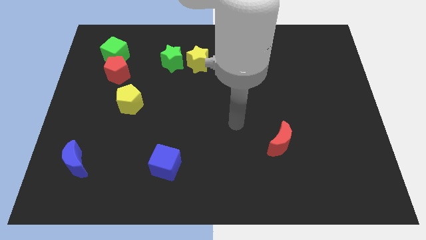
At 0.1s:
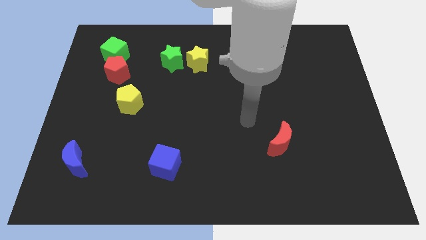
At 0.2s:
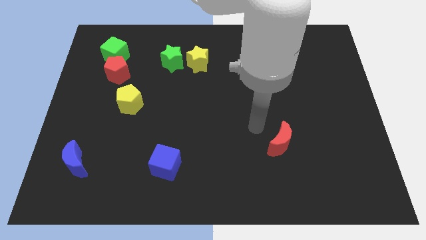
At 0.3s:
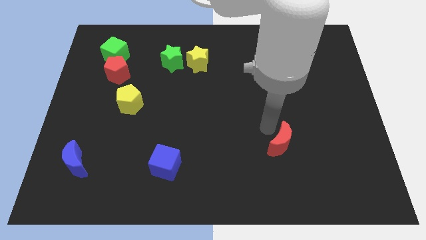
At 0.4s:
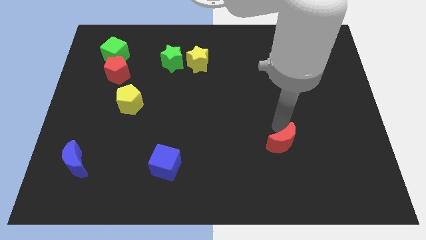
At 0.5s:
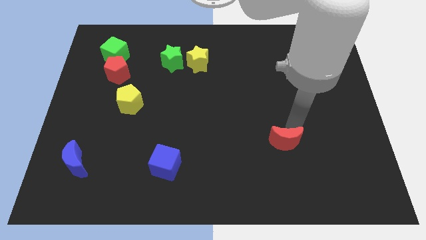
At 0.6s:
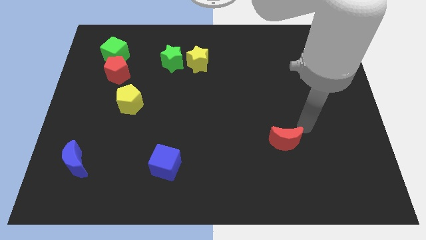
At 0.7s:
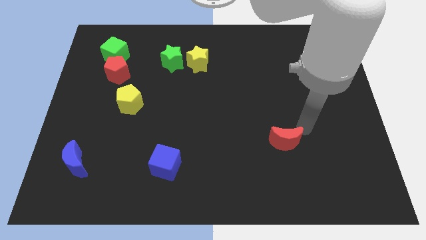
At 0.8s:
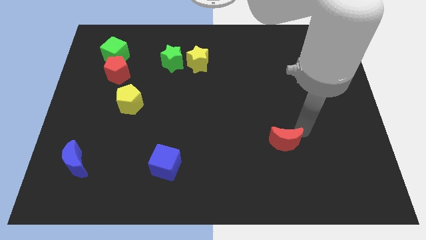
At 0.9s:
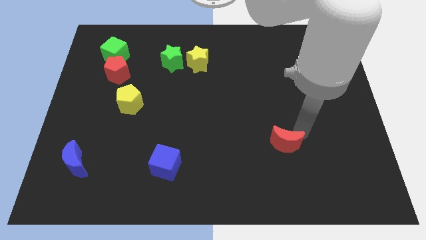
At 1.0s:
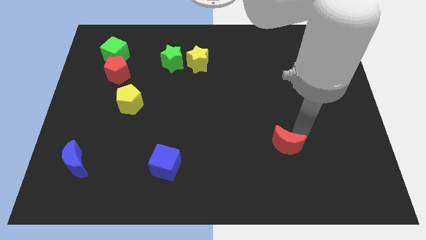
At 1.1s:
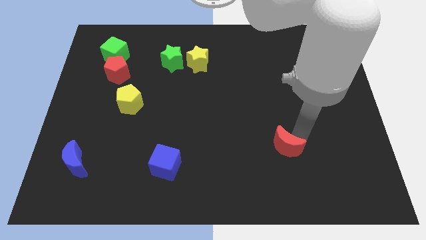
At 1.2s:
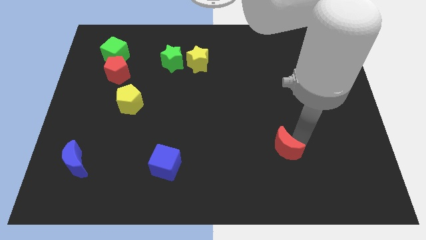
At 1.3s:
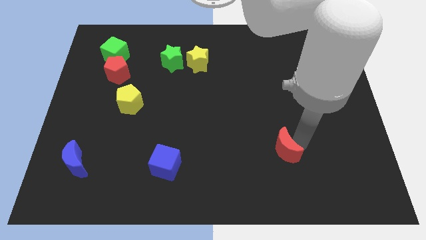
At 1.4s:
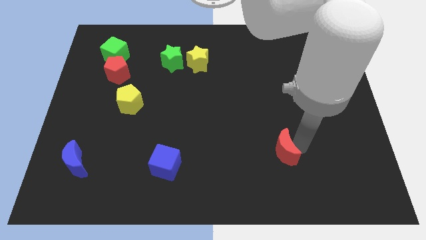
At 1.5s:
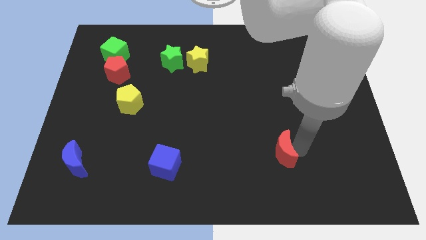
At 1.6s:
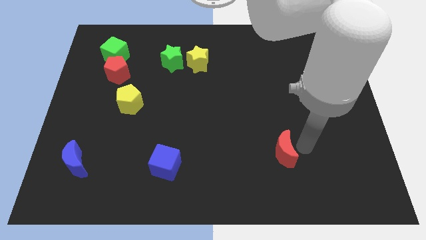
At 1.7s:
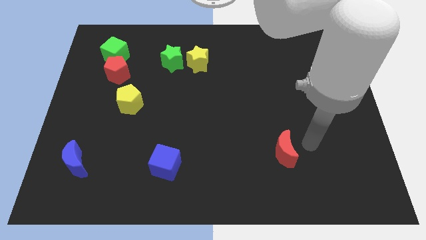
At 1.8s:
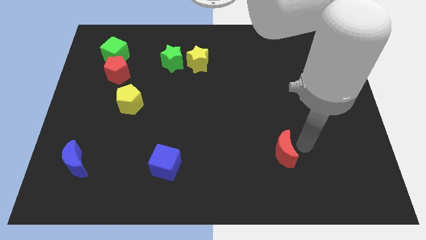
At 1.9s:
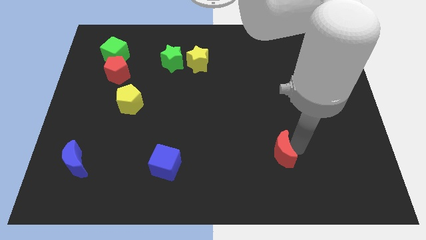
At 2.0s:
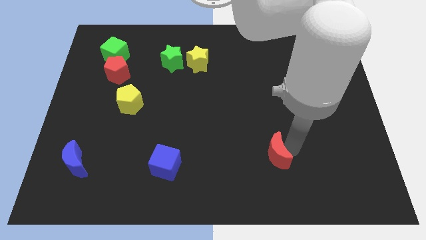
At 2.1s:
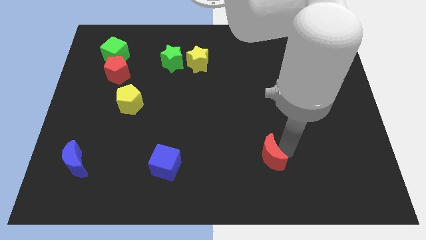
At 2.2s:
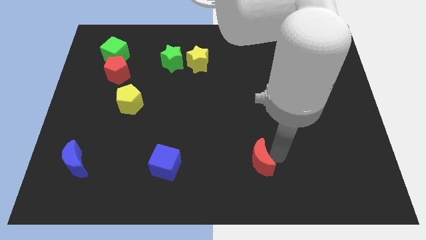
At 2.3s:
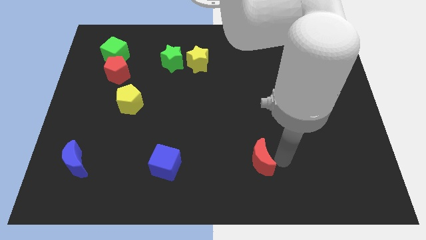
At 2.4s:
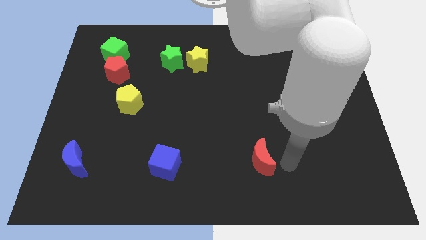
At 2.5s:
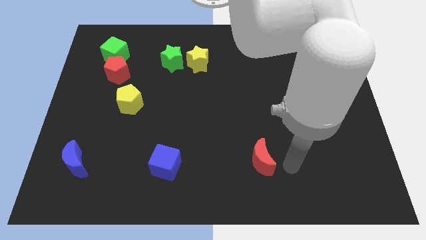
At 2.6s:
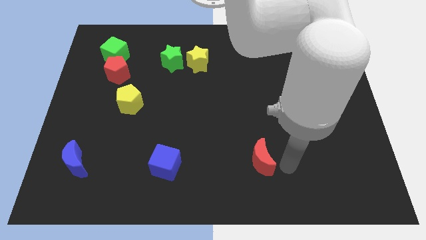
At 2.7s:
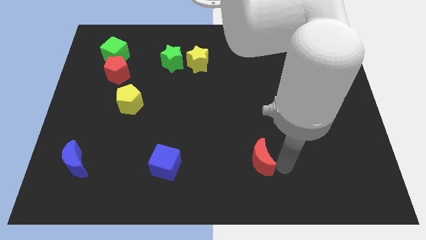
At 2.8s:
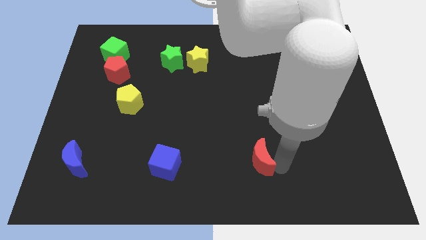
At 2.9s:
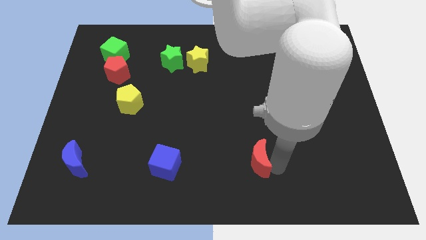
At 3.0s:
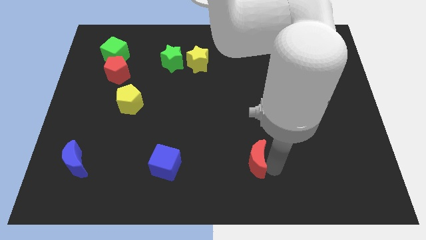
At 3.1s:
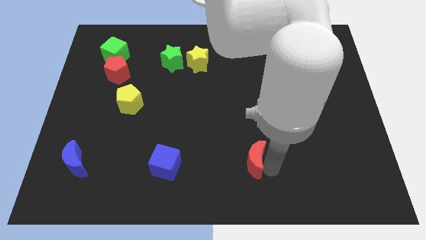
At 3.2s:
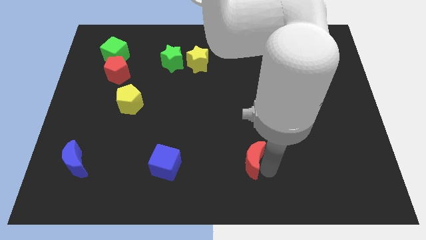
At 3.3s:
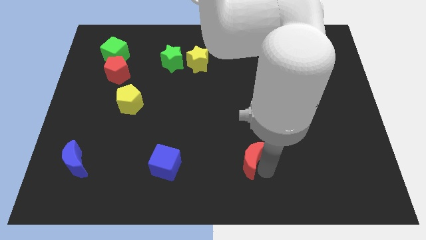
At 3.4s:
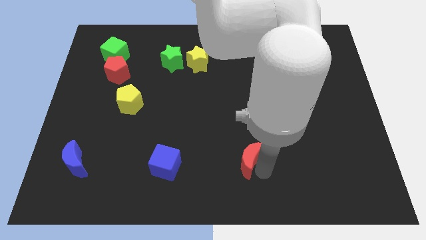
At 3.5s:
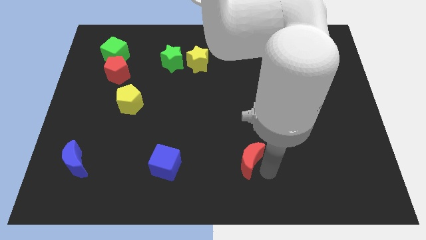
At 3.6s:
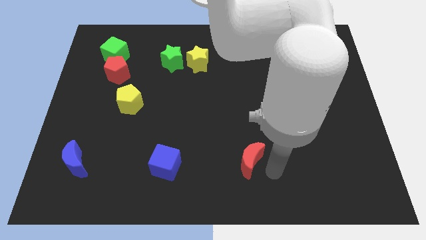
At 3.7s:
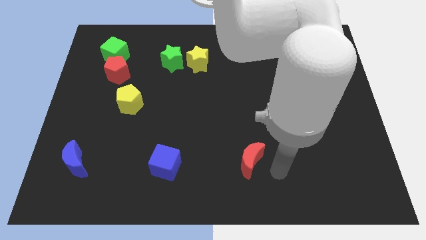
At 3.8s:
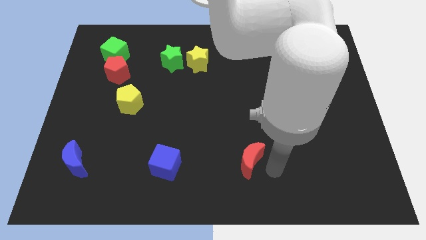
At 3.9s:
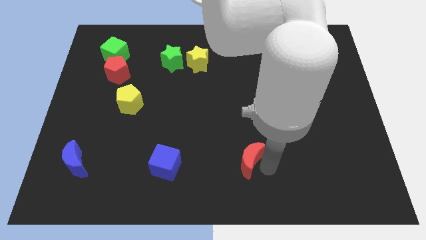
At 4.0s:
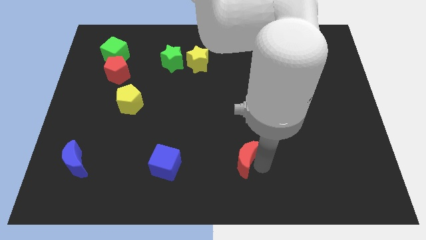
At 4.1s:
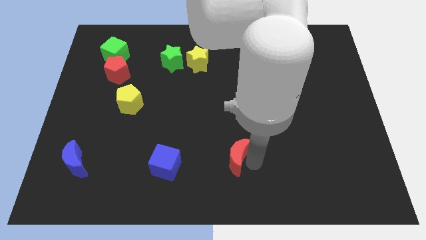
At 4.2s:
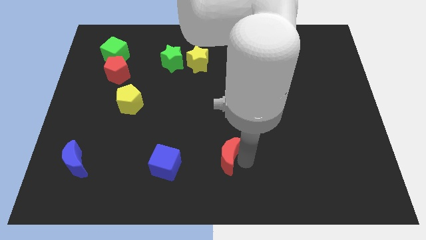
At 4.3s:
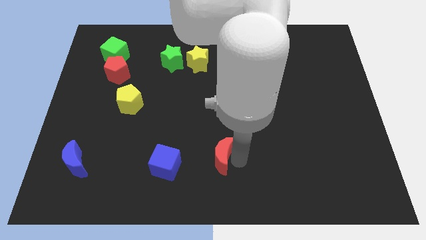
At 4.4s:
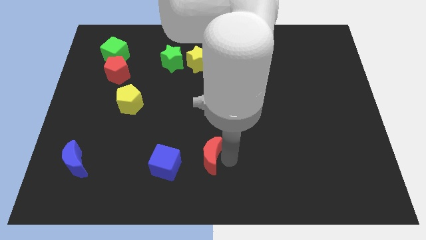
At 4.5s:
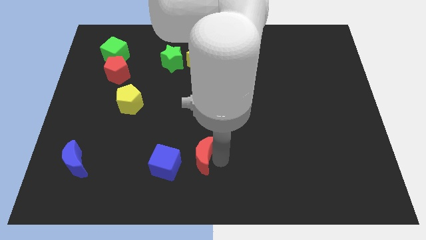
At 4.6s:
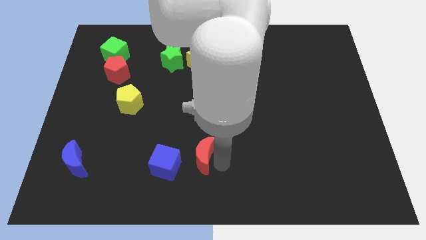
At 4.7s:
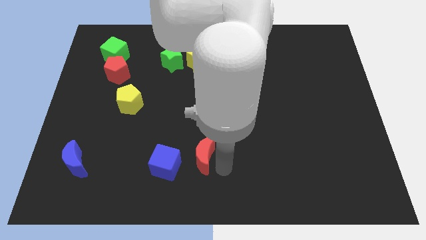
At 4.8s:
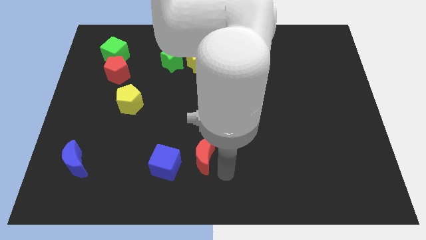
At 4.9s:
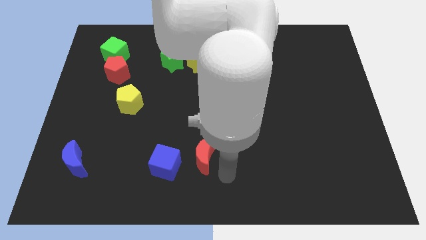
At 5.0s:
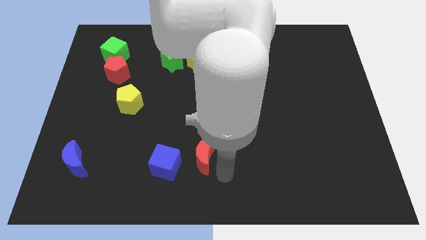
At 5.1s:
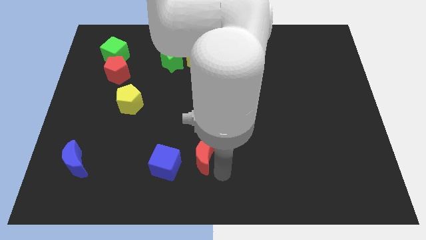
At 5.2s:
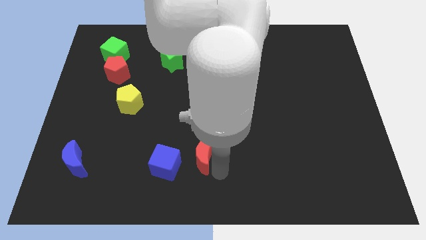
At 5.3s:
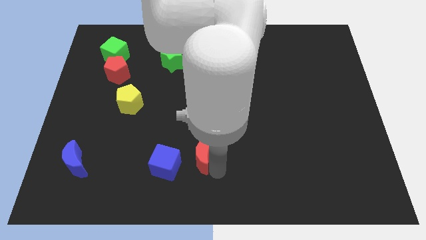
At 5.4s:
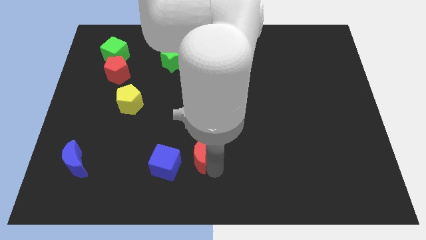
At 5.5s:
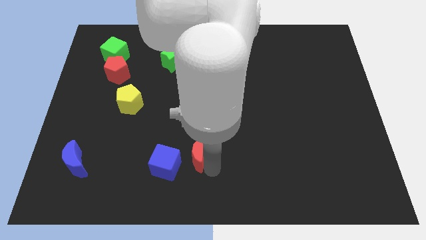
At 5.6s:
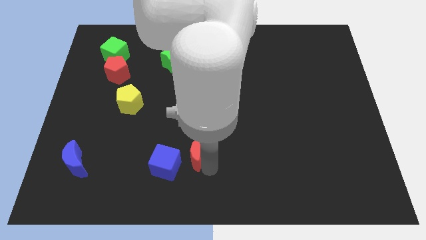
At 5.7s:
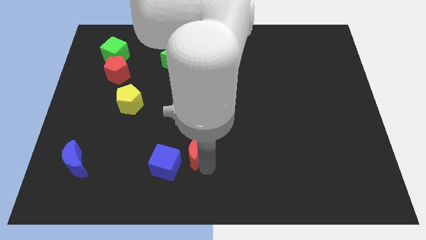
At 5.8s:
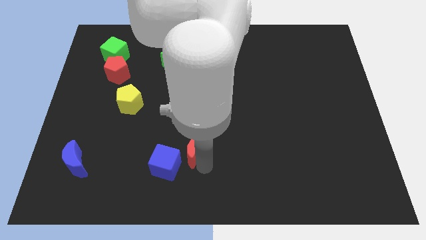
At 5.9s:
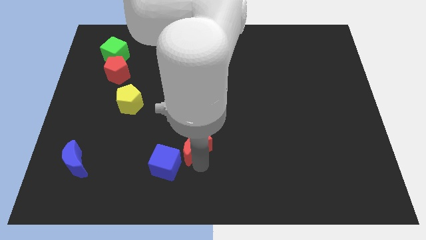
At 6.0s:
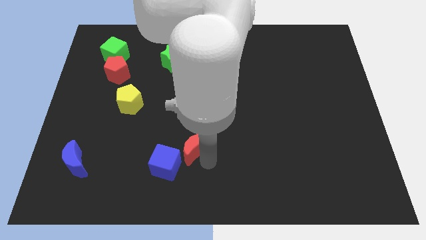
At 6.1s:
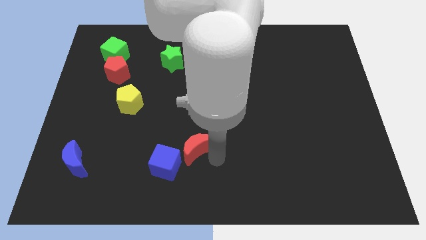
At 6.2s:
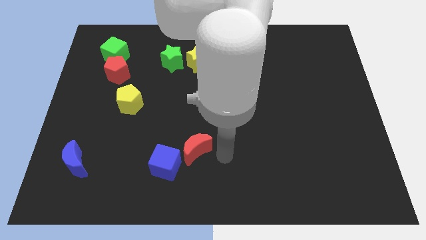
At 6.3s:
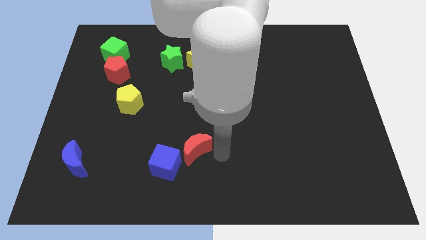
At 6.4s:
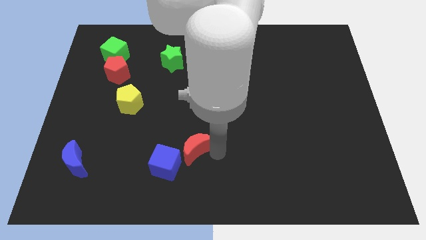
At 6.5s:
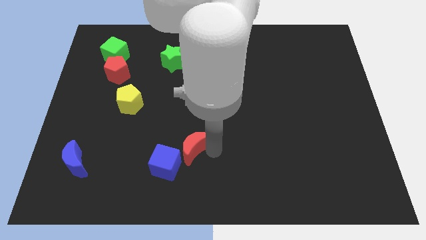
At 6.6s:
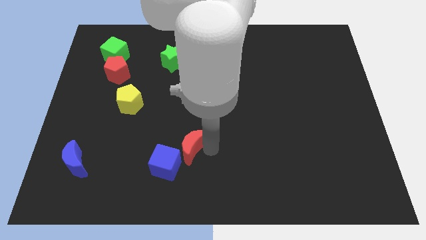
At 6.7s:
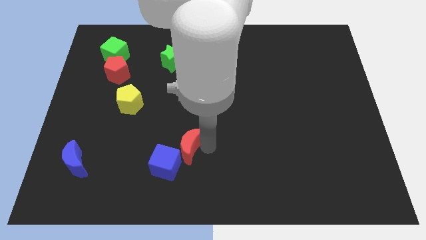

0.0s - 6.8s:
slide the red moon to the left

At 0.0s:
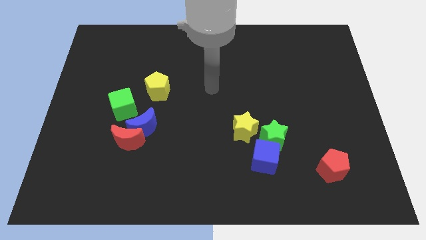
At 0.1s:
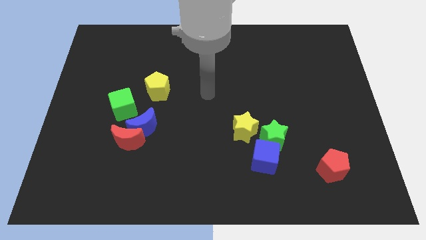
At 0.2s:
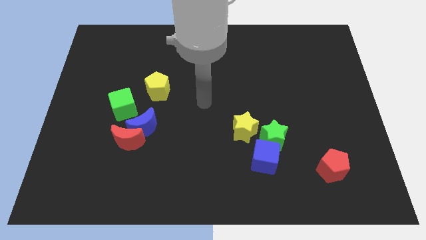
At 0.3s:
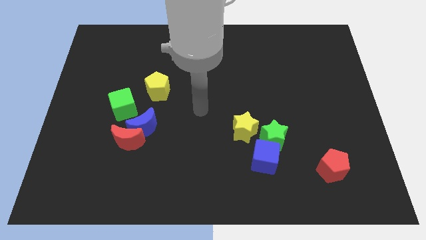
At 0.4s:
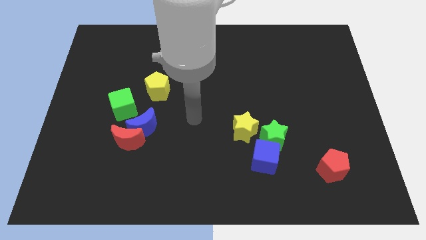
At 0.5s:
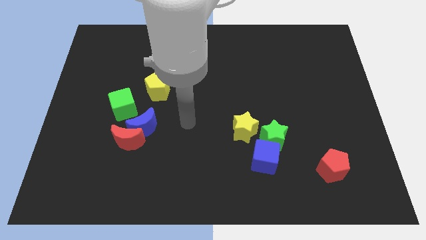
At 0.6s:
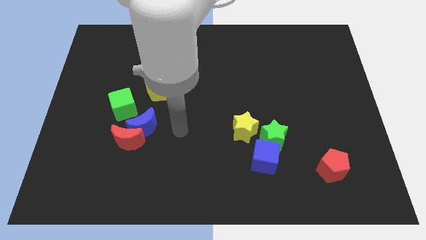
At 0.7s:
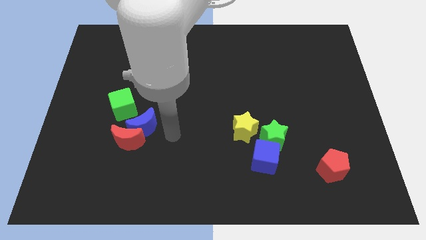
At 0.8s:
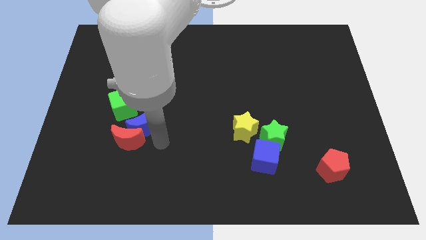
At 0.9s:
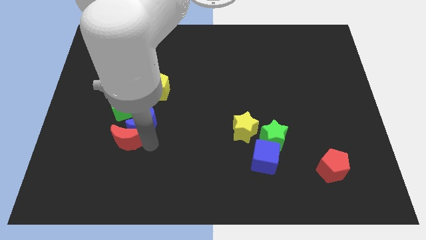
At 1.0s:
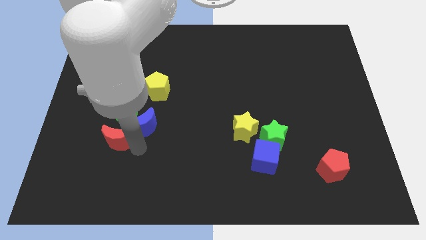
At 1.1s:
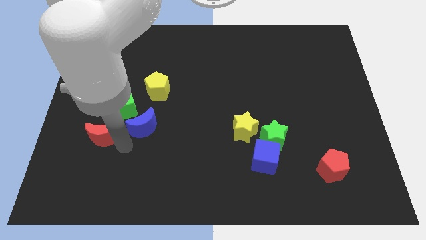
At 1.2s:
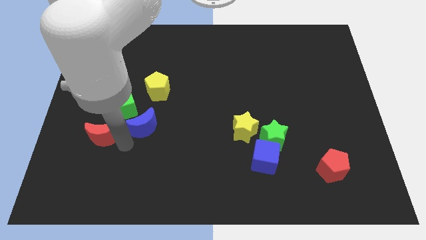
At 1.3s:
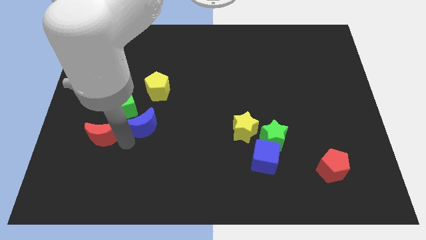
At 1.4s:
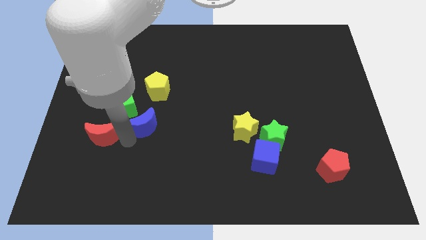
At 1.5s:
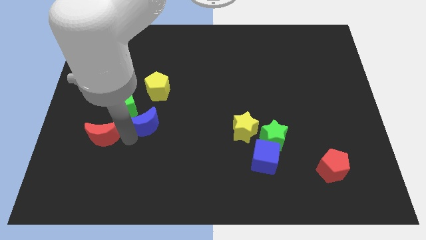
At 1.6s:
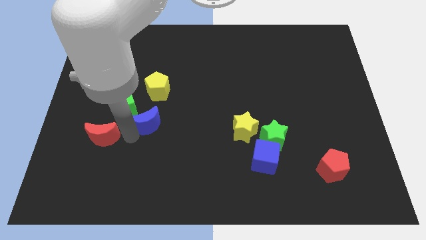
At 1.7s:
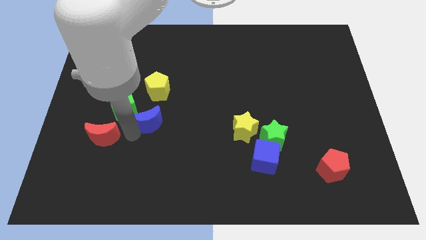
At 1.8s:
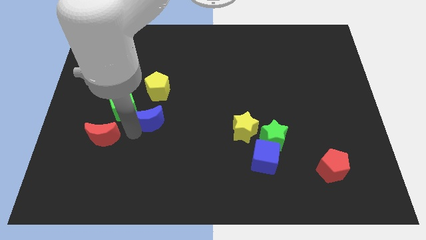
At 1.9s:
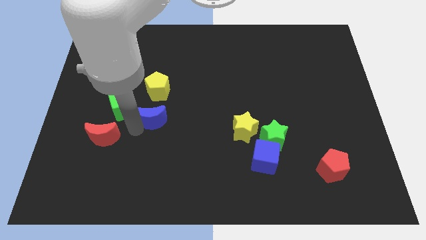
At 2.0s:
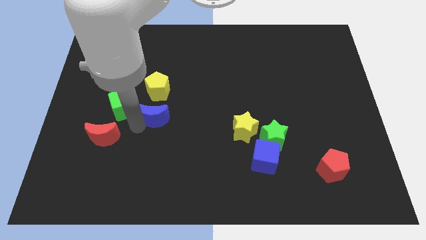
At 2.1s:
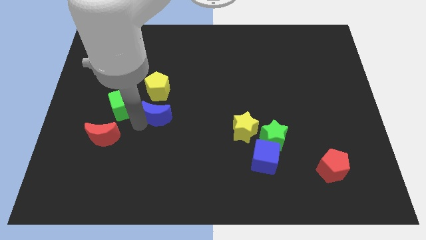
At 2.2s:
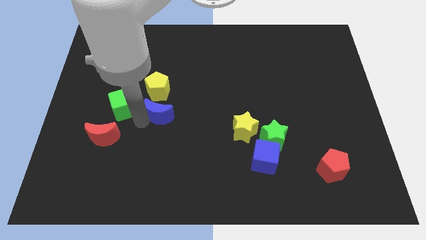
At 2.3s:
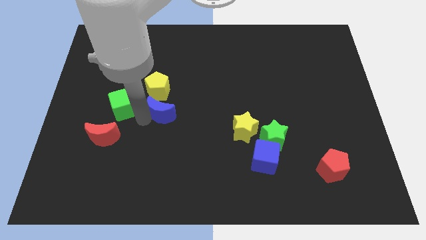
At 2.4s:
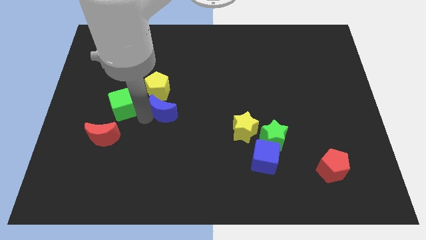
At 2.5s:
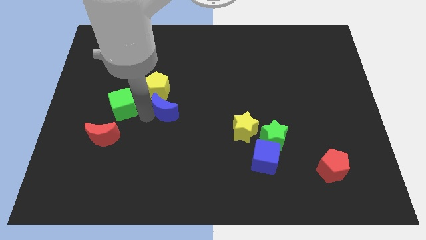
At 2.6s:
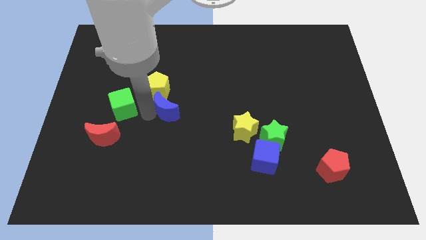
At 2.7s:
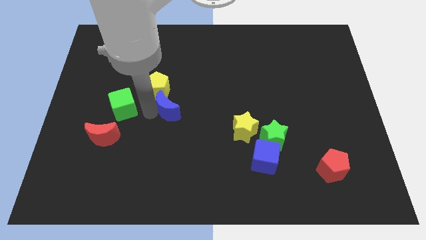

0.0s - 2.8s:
push the blue moon diagonally up and right a little
